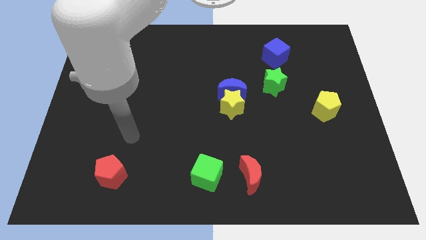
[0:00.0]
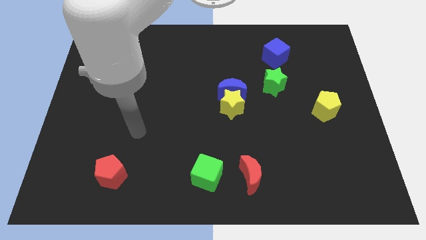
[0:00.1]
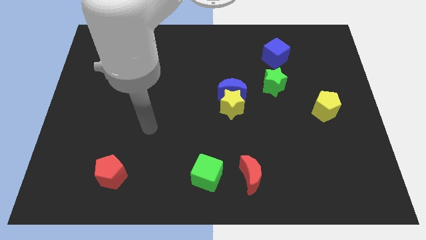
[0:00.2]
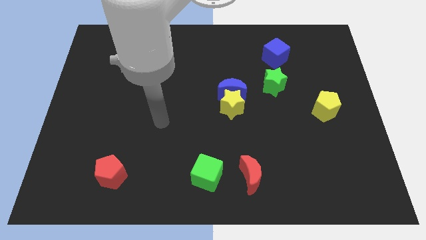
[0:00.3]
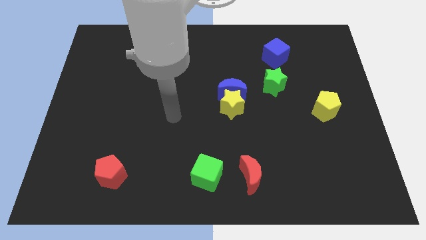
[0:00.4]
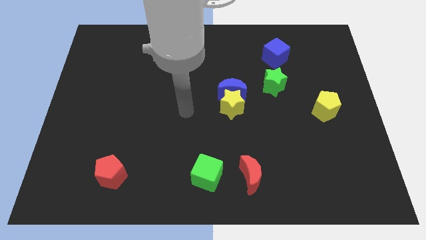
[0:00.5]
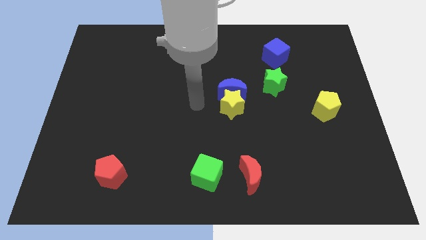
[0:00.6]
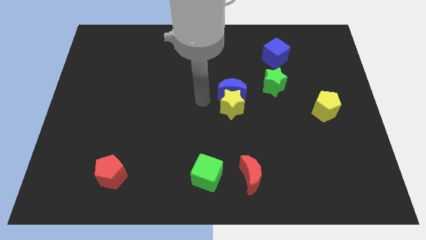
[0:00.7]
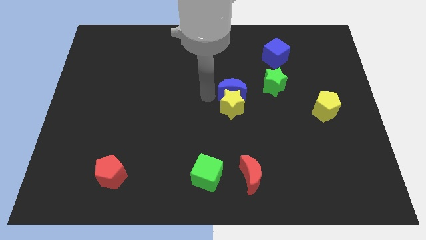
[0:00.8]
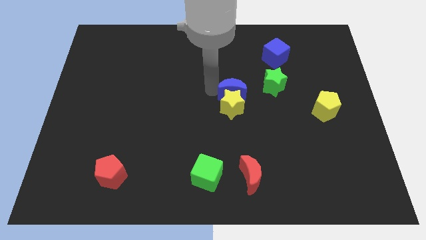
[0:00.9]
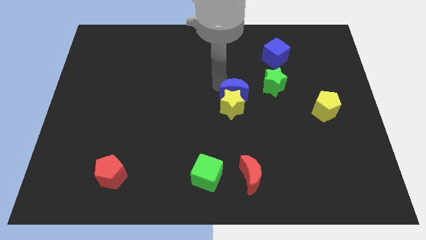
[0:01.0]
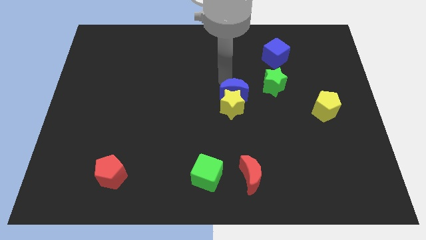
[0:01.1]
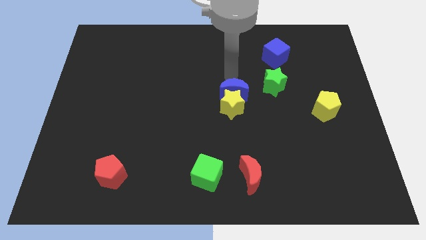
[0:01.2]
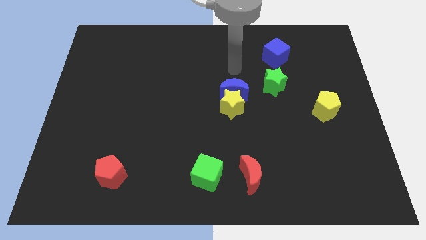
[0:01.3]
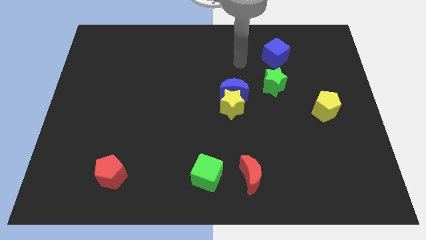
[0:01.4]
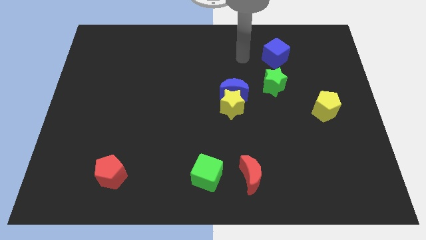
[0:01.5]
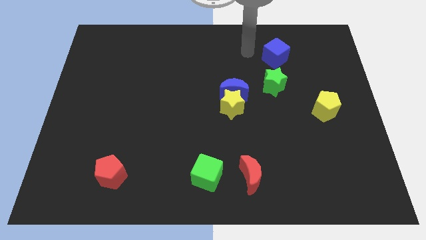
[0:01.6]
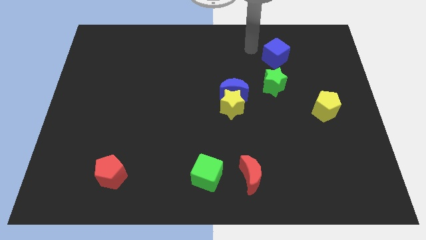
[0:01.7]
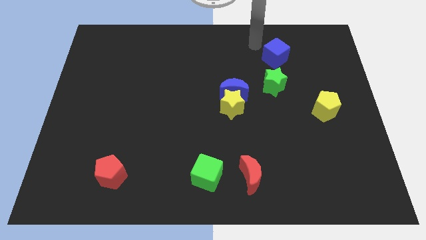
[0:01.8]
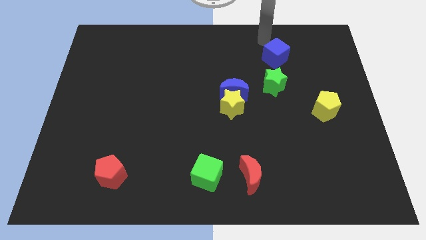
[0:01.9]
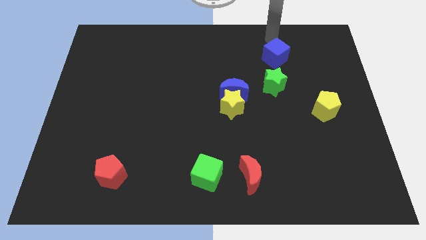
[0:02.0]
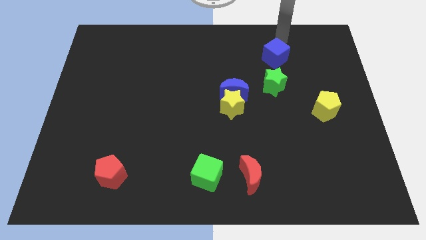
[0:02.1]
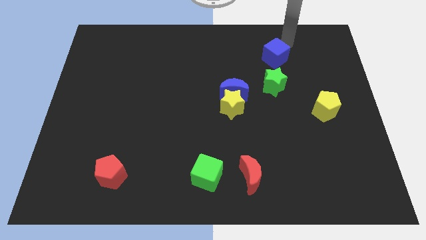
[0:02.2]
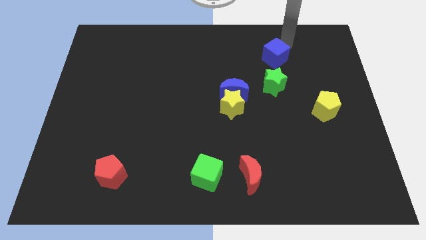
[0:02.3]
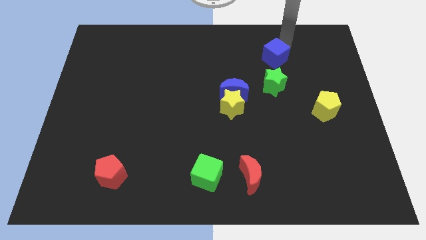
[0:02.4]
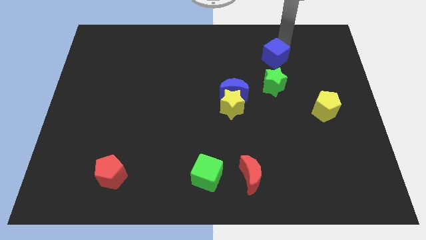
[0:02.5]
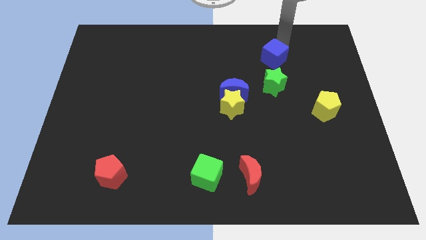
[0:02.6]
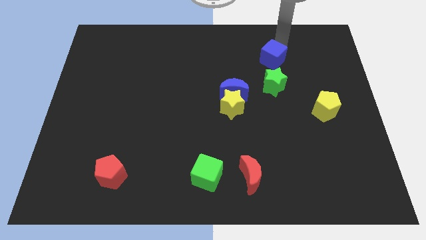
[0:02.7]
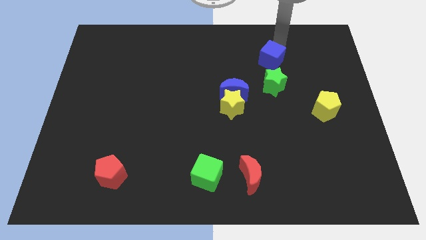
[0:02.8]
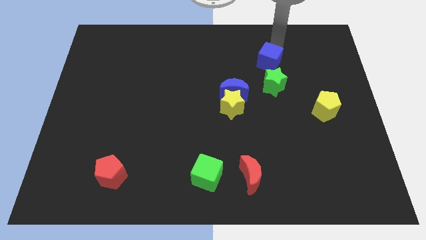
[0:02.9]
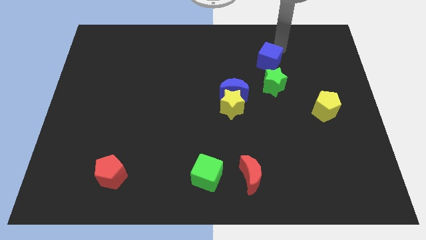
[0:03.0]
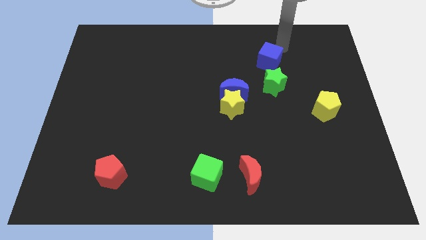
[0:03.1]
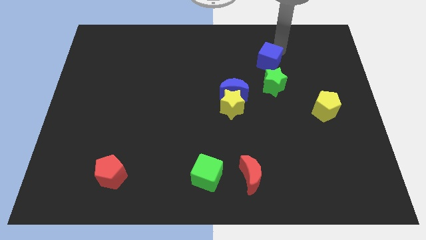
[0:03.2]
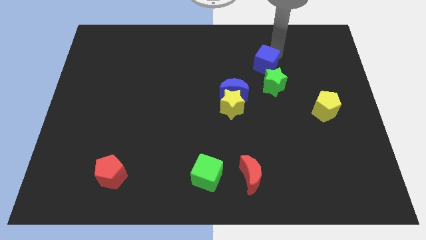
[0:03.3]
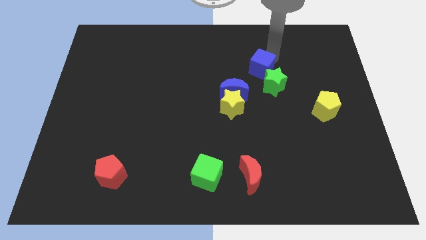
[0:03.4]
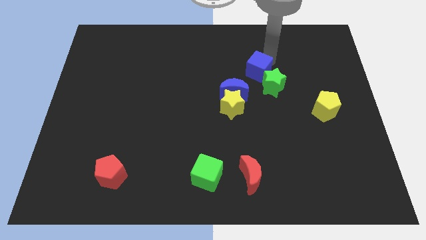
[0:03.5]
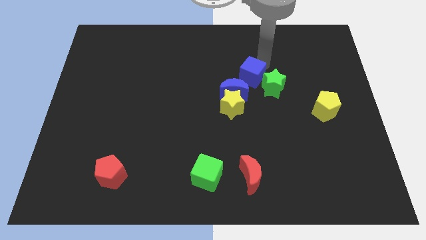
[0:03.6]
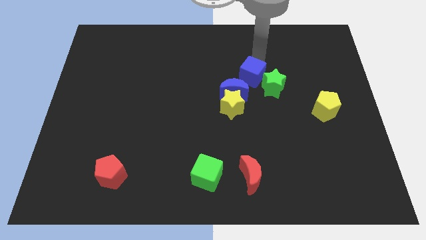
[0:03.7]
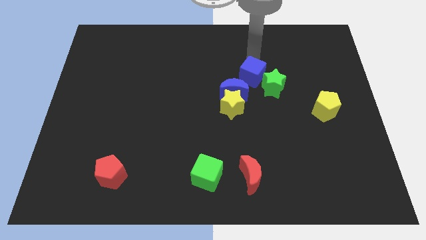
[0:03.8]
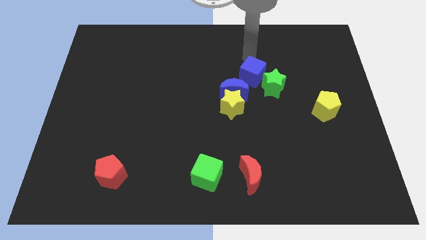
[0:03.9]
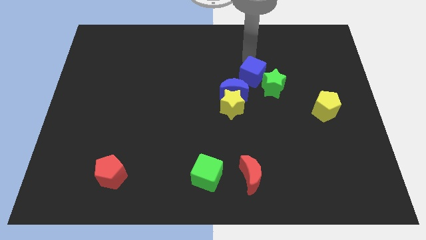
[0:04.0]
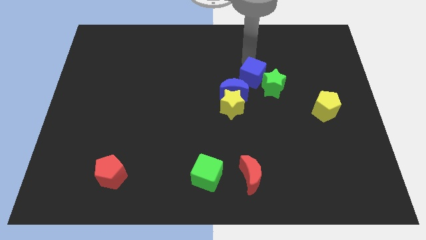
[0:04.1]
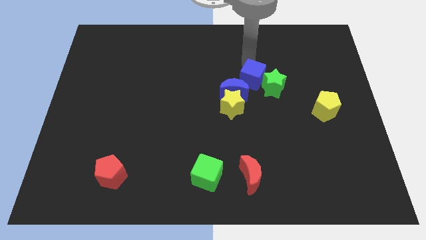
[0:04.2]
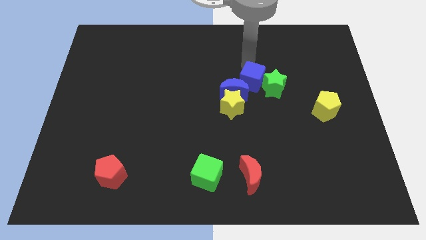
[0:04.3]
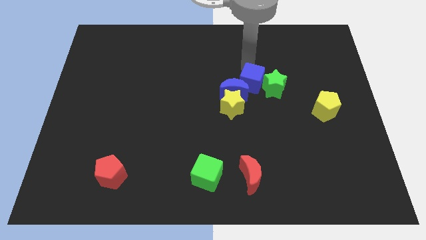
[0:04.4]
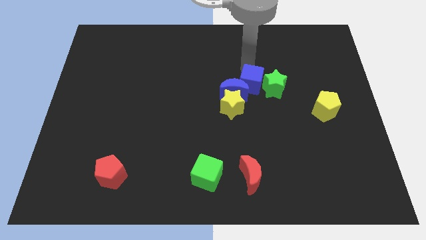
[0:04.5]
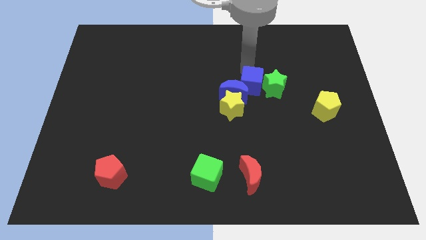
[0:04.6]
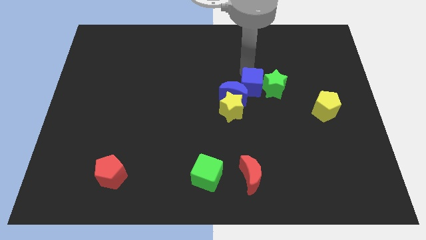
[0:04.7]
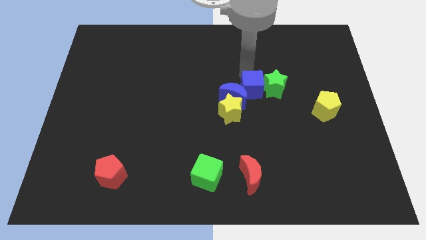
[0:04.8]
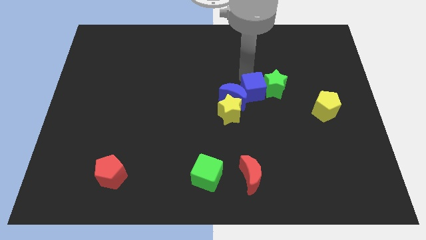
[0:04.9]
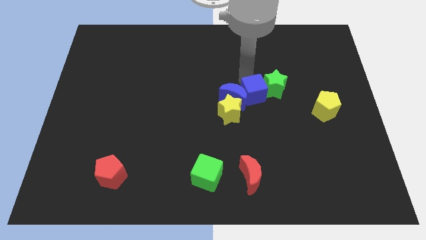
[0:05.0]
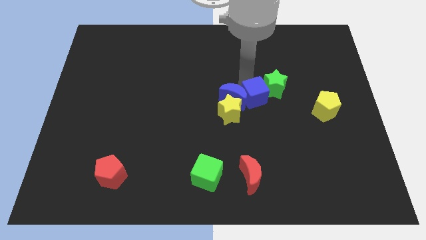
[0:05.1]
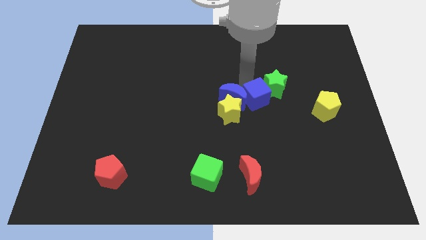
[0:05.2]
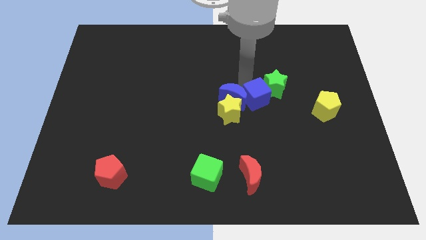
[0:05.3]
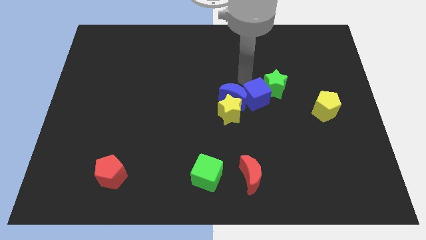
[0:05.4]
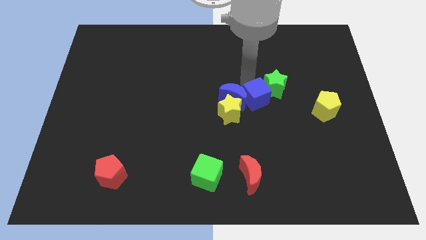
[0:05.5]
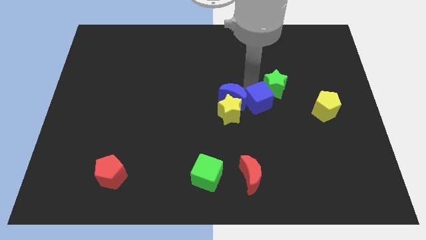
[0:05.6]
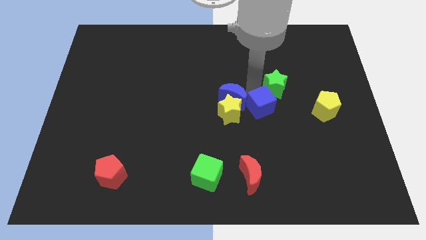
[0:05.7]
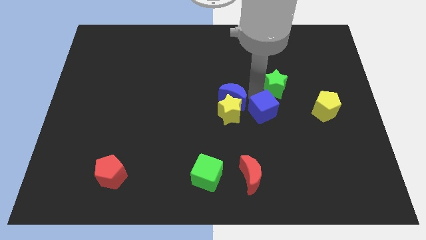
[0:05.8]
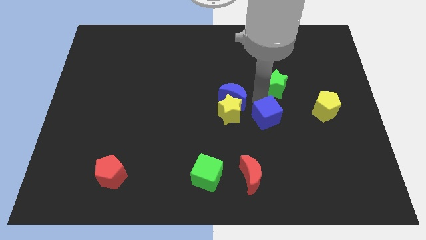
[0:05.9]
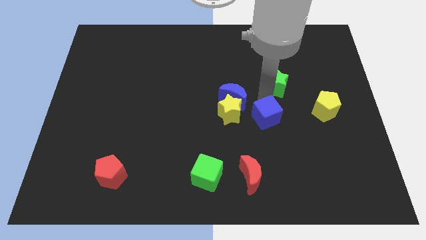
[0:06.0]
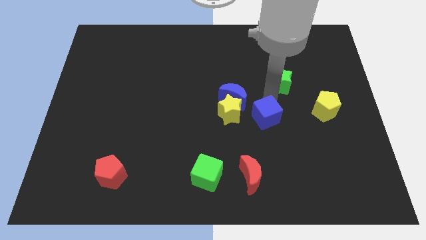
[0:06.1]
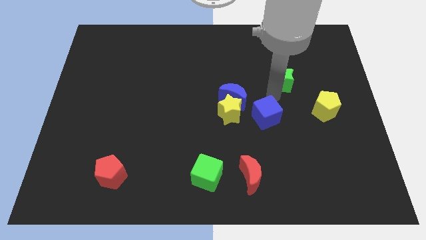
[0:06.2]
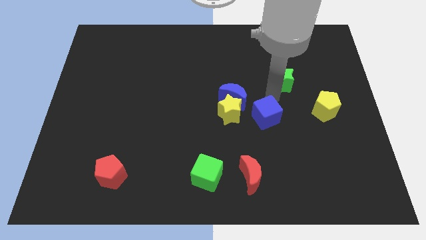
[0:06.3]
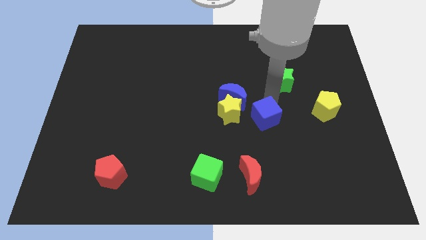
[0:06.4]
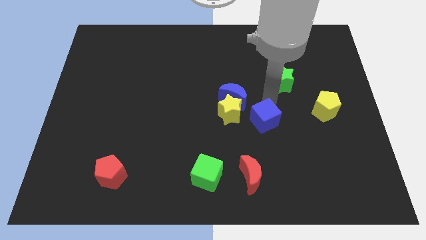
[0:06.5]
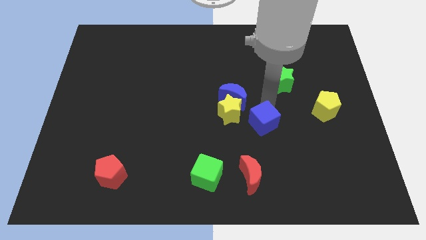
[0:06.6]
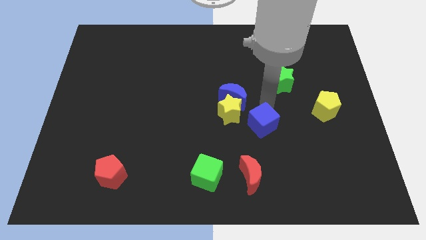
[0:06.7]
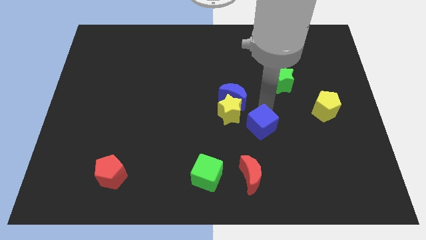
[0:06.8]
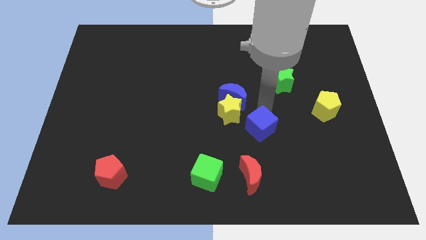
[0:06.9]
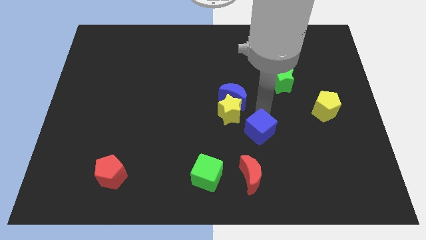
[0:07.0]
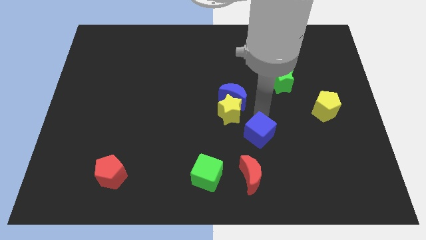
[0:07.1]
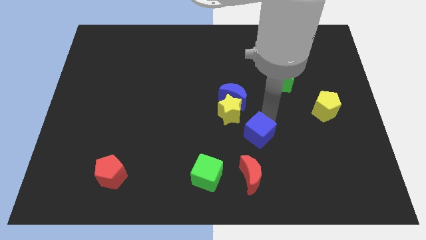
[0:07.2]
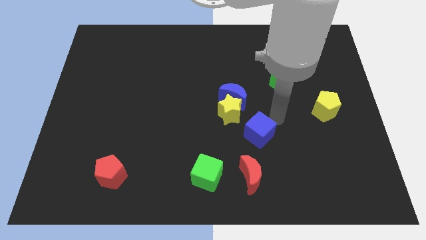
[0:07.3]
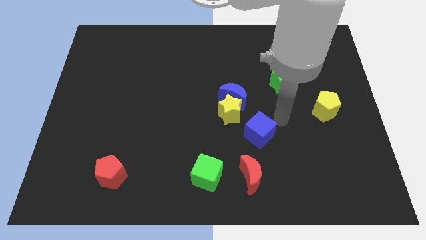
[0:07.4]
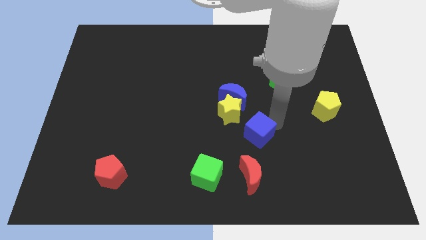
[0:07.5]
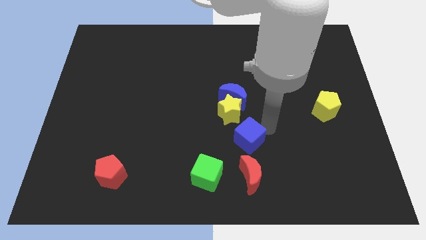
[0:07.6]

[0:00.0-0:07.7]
push the blue cube to the bottom side of the yellow star
